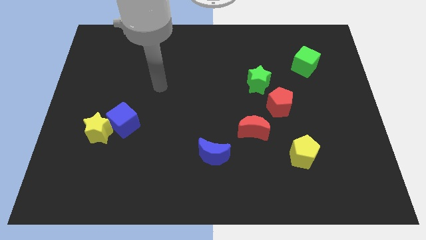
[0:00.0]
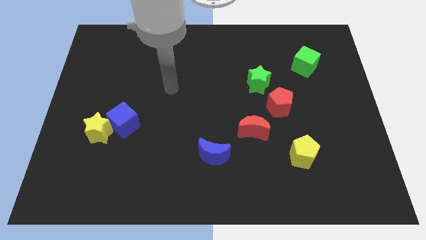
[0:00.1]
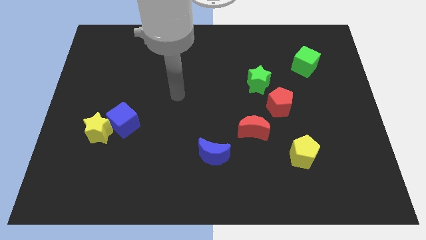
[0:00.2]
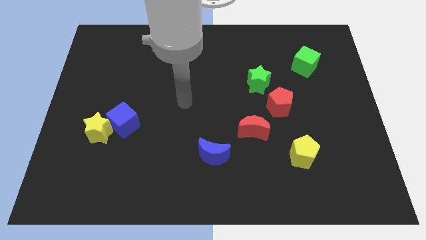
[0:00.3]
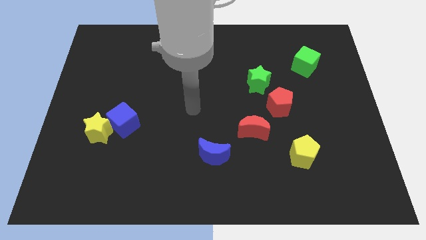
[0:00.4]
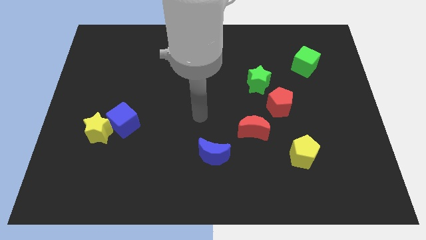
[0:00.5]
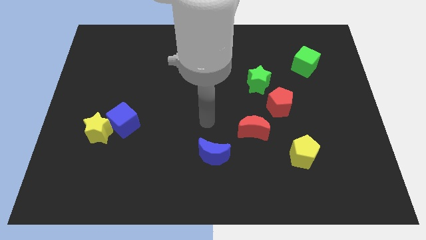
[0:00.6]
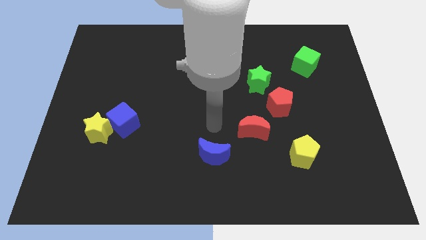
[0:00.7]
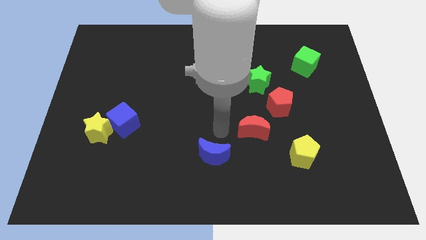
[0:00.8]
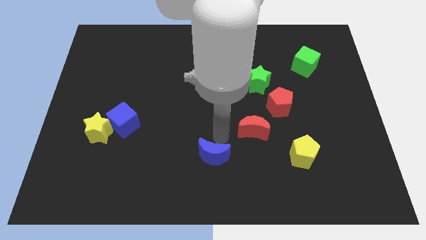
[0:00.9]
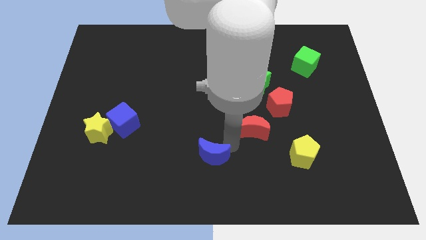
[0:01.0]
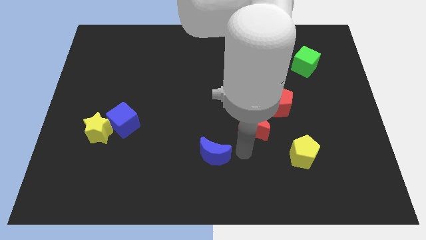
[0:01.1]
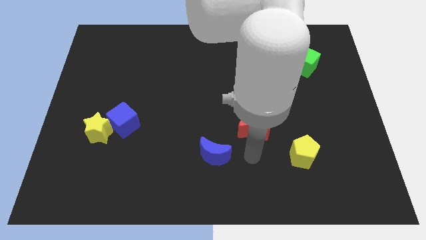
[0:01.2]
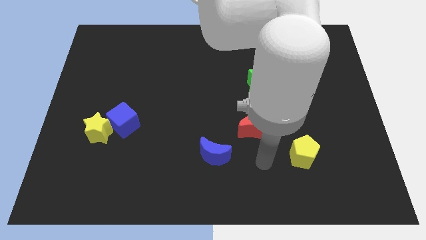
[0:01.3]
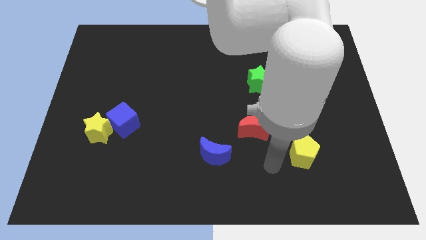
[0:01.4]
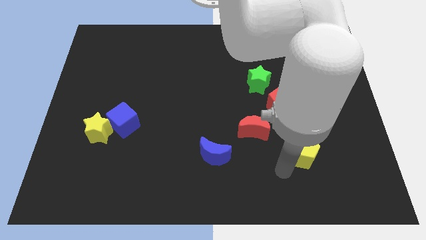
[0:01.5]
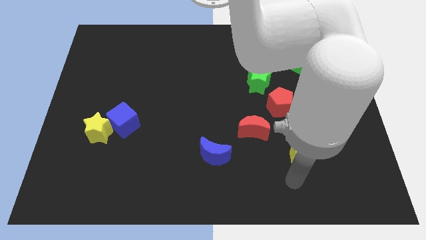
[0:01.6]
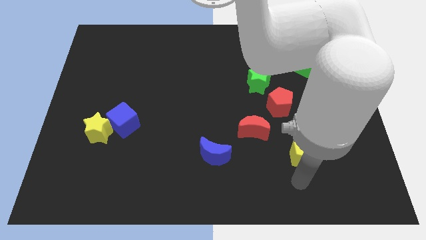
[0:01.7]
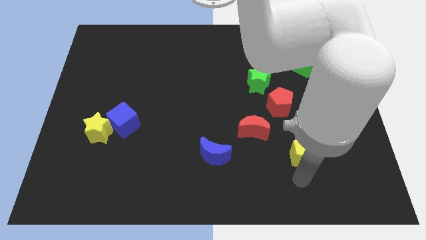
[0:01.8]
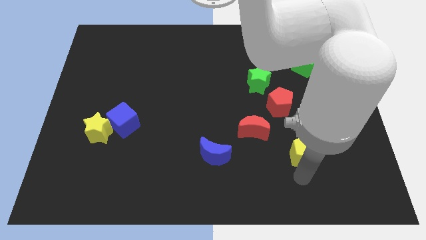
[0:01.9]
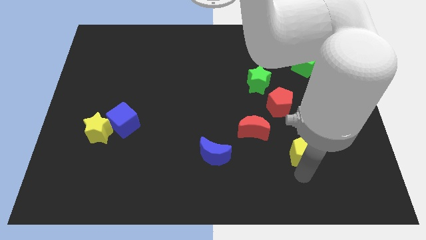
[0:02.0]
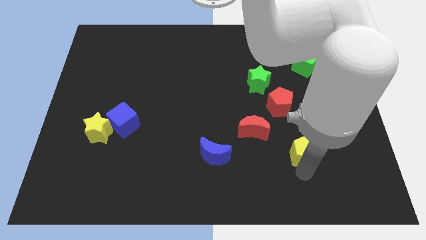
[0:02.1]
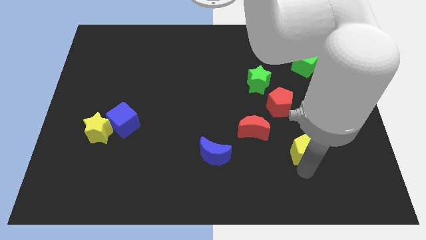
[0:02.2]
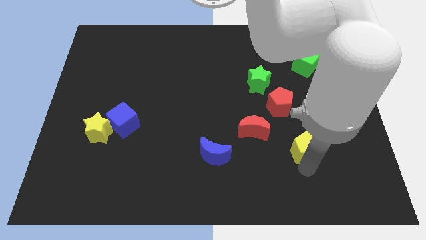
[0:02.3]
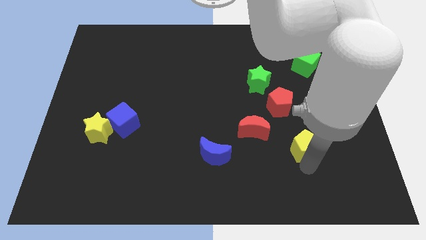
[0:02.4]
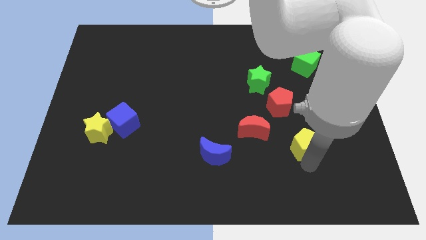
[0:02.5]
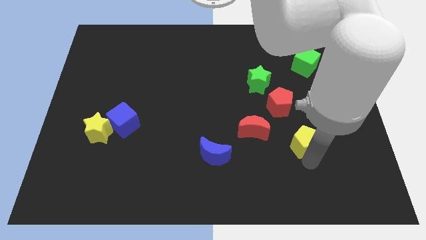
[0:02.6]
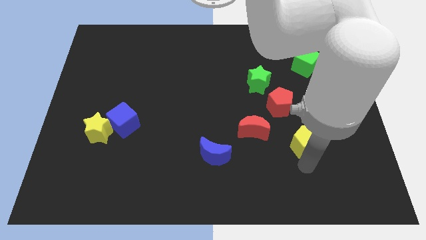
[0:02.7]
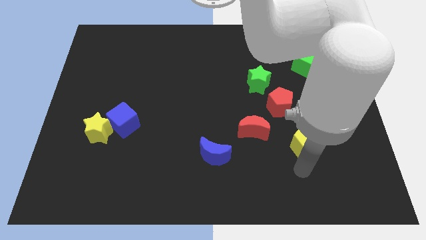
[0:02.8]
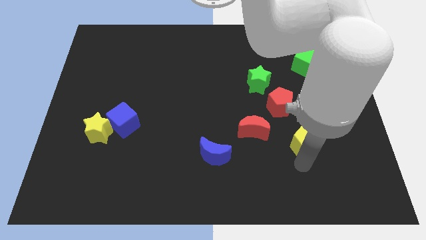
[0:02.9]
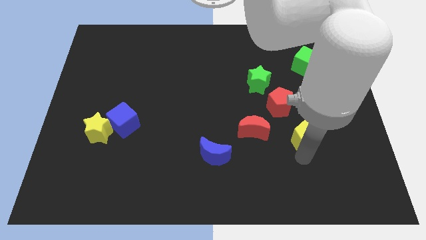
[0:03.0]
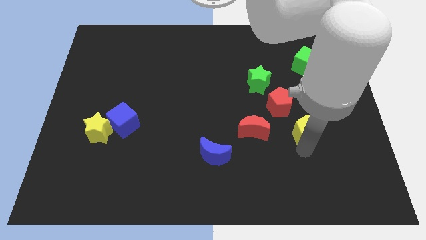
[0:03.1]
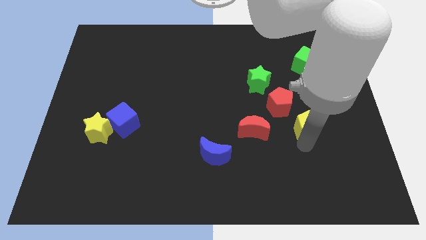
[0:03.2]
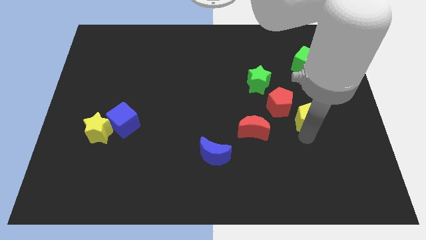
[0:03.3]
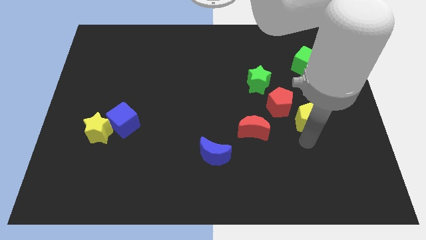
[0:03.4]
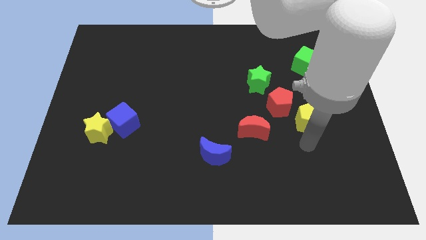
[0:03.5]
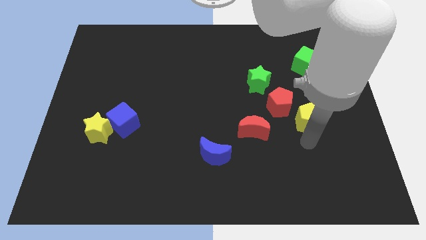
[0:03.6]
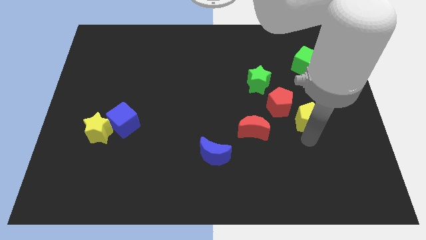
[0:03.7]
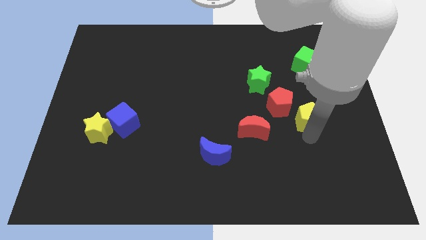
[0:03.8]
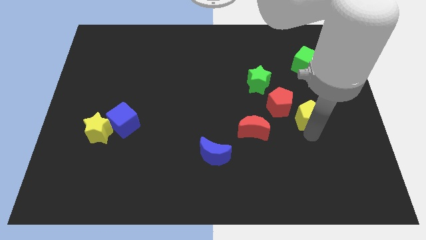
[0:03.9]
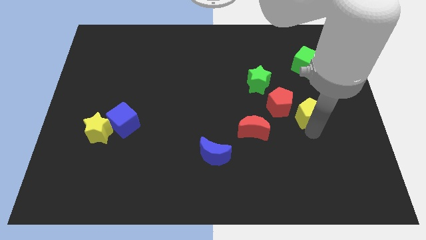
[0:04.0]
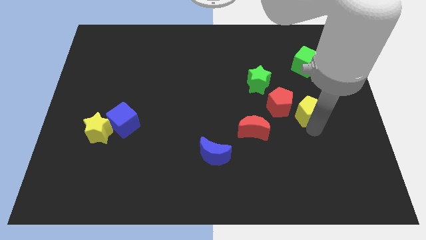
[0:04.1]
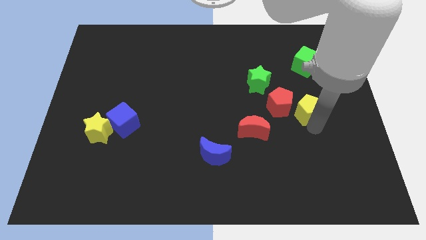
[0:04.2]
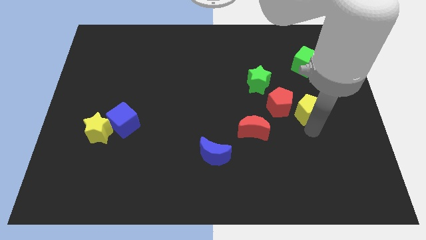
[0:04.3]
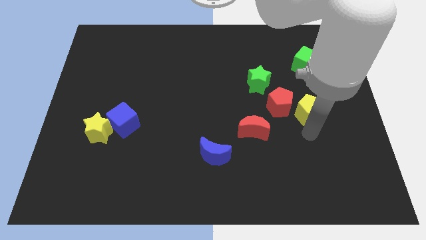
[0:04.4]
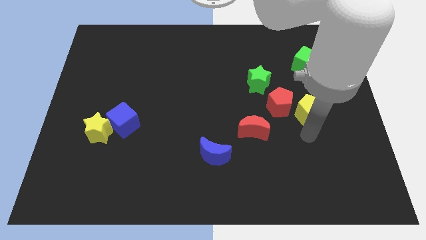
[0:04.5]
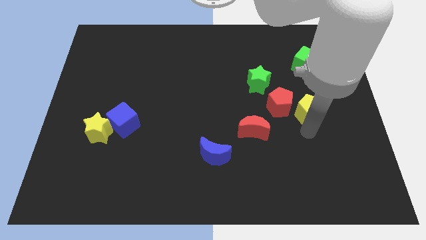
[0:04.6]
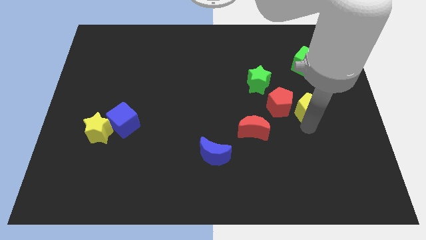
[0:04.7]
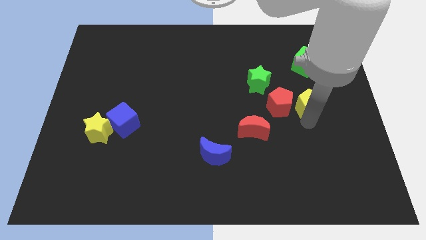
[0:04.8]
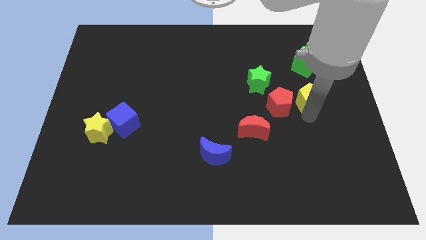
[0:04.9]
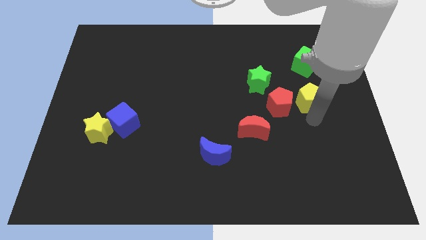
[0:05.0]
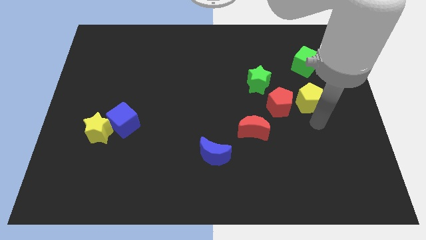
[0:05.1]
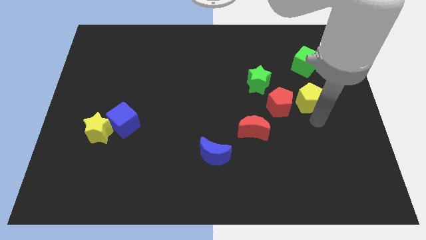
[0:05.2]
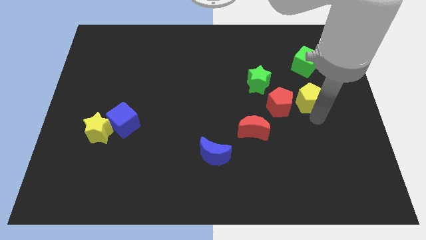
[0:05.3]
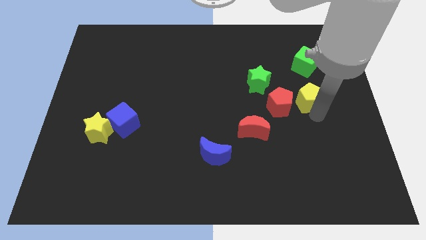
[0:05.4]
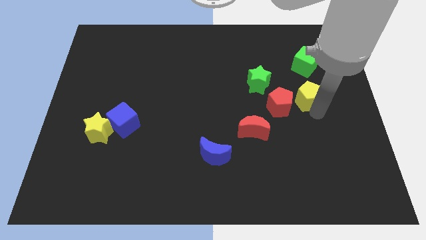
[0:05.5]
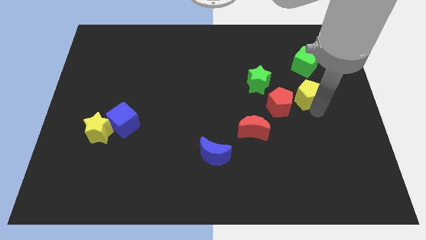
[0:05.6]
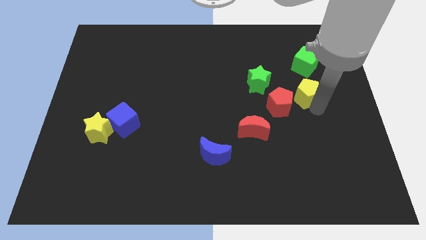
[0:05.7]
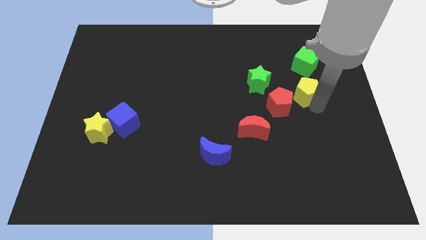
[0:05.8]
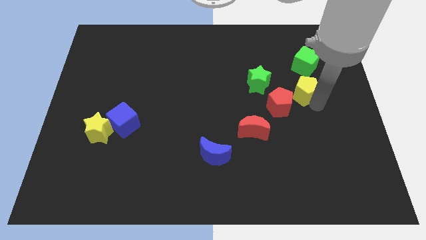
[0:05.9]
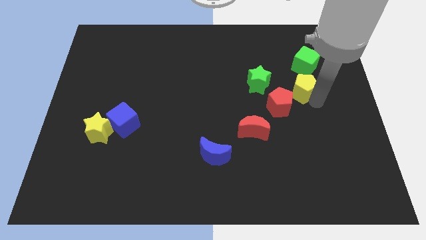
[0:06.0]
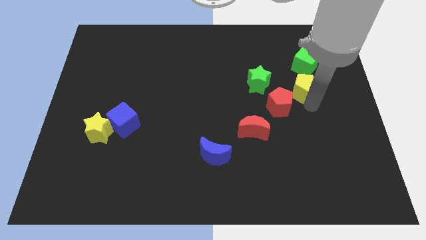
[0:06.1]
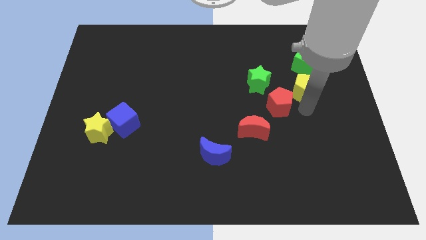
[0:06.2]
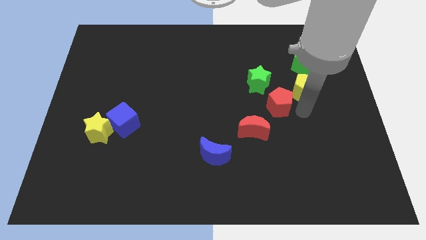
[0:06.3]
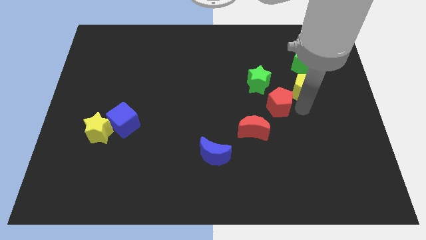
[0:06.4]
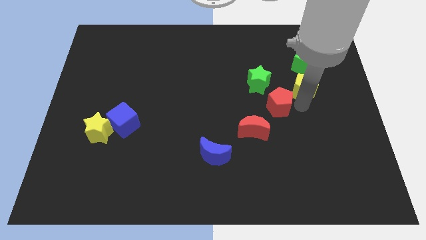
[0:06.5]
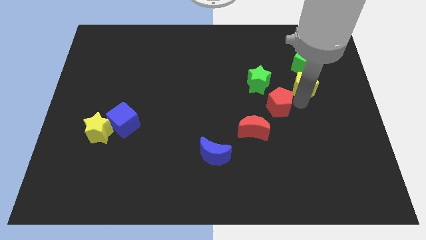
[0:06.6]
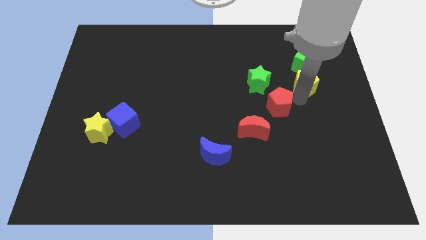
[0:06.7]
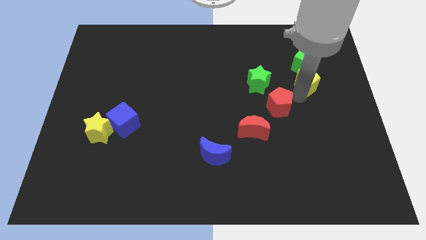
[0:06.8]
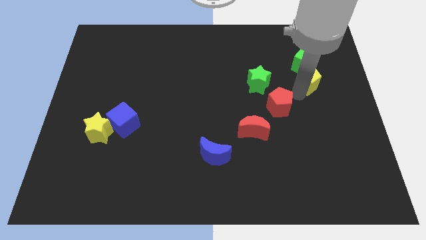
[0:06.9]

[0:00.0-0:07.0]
put the yellow pentagon to the green cube

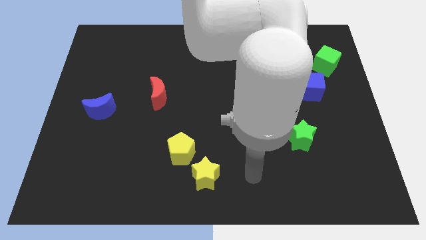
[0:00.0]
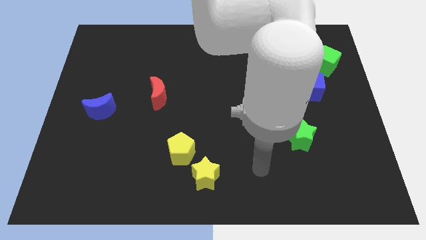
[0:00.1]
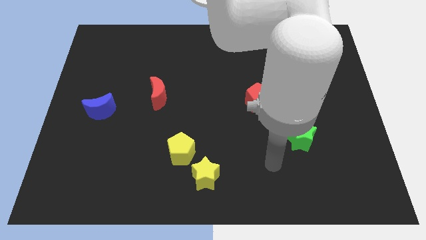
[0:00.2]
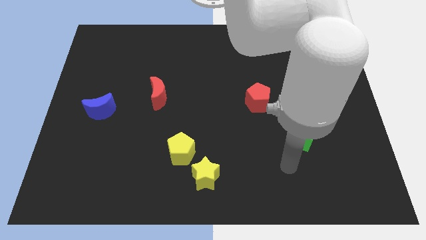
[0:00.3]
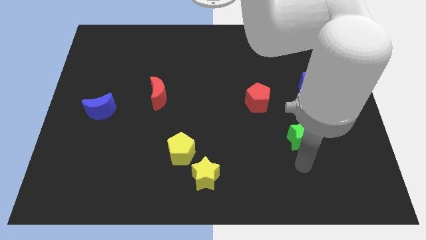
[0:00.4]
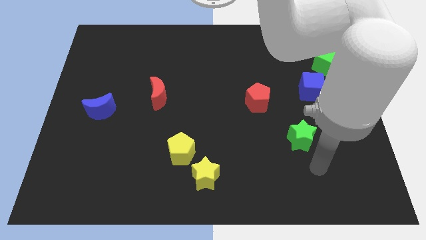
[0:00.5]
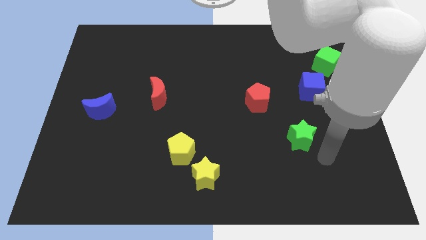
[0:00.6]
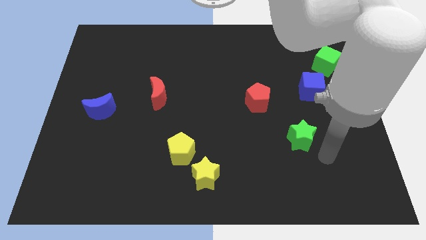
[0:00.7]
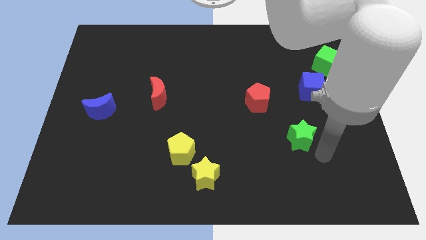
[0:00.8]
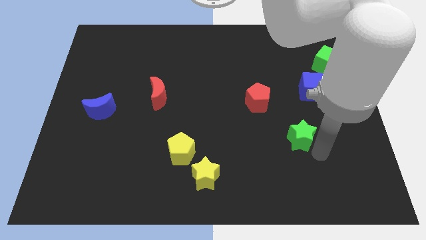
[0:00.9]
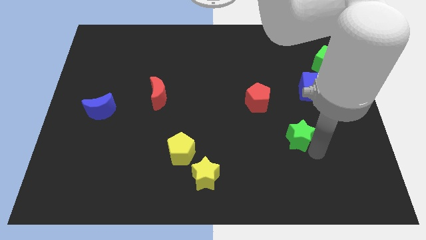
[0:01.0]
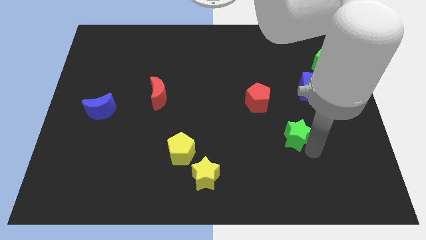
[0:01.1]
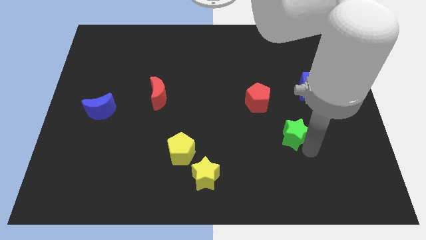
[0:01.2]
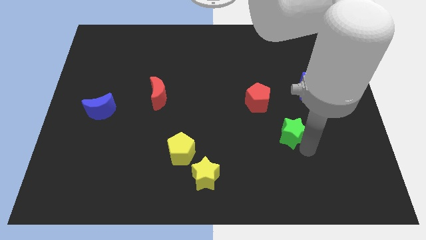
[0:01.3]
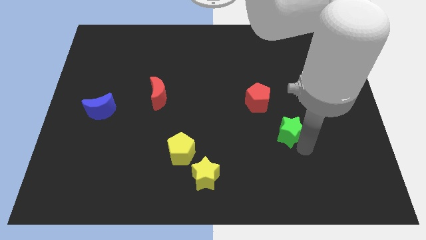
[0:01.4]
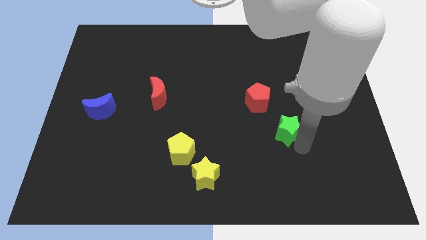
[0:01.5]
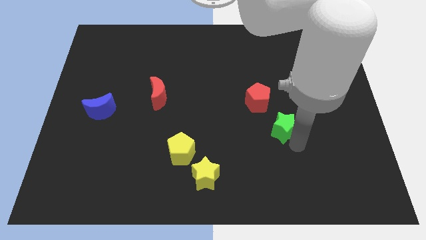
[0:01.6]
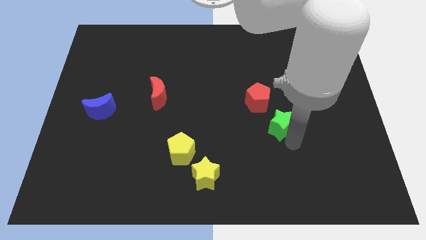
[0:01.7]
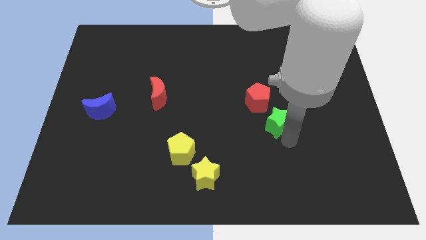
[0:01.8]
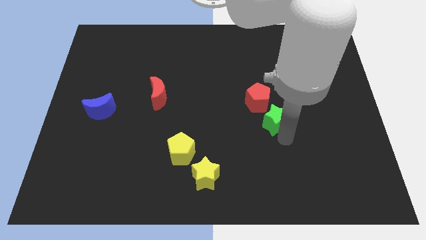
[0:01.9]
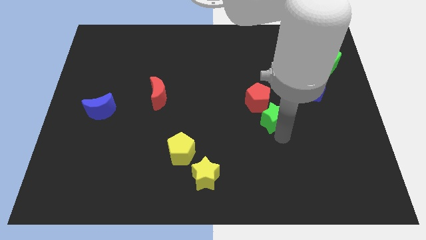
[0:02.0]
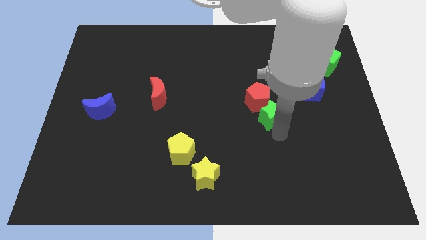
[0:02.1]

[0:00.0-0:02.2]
push the green star next to the red pentagon
